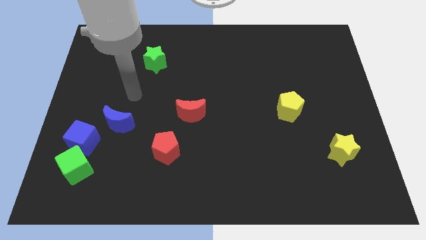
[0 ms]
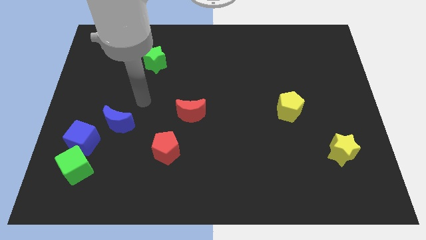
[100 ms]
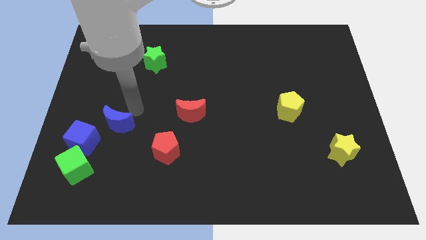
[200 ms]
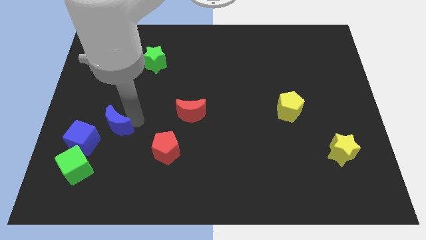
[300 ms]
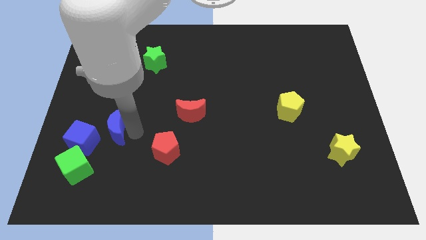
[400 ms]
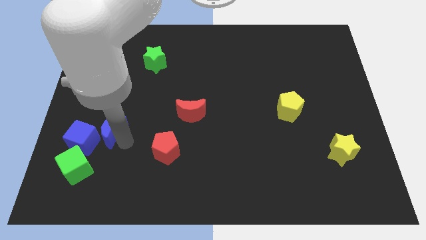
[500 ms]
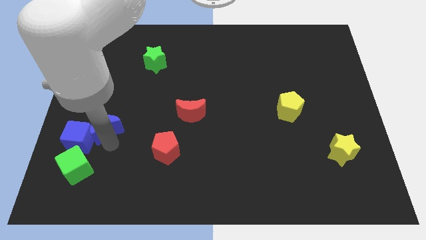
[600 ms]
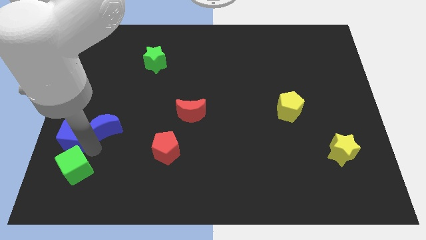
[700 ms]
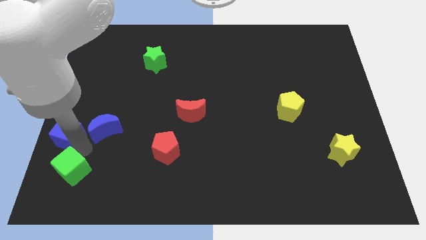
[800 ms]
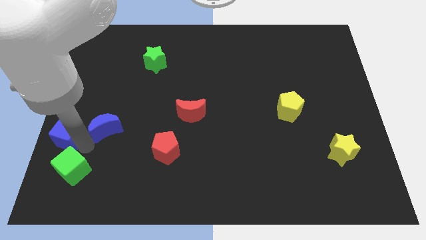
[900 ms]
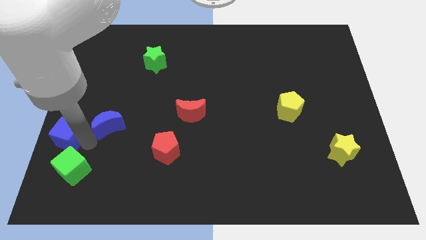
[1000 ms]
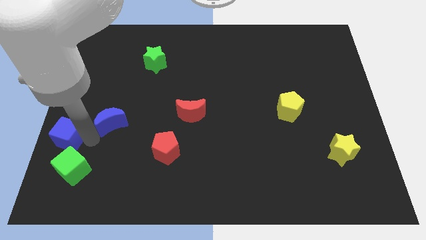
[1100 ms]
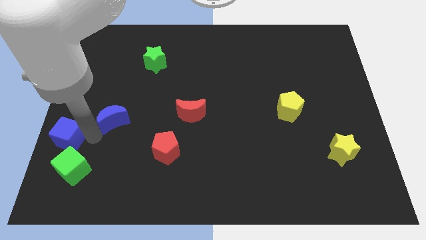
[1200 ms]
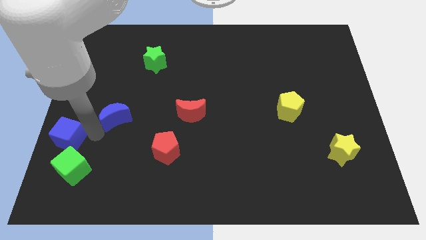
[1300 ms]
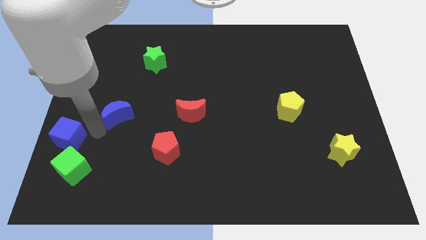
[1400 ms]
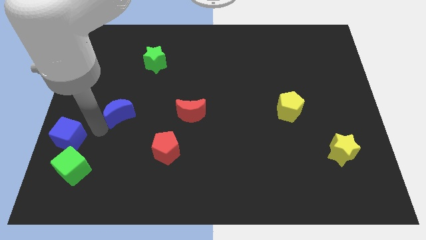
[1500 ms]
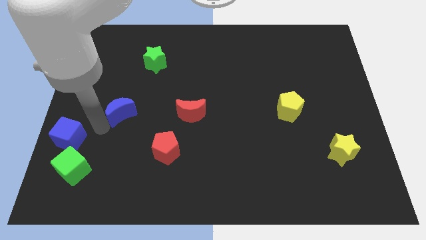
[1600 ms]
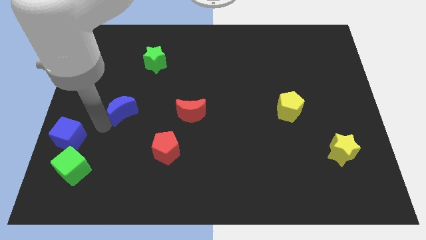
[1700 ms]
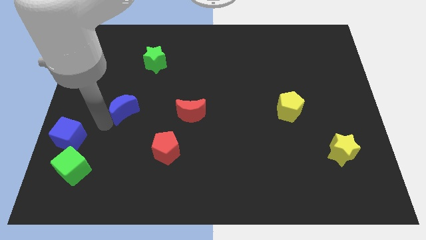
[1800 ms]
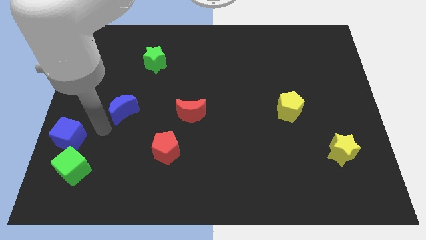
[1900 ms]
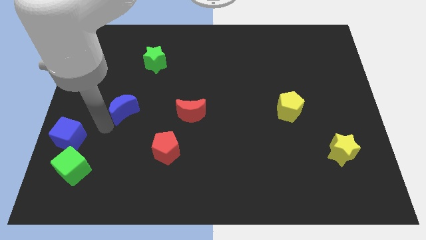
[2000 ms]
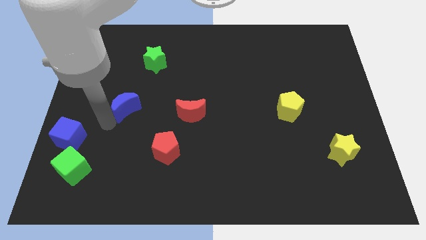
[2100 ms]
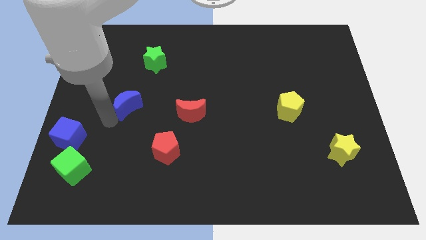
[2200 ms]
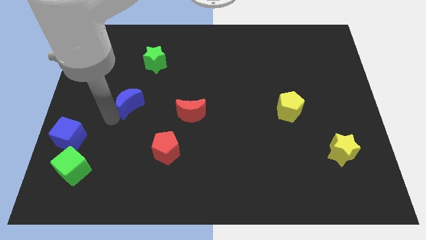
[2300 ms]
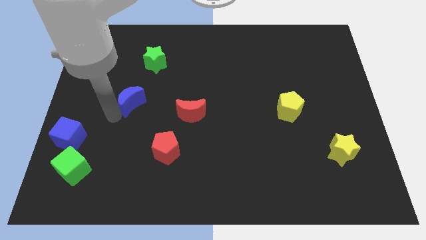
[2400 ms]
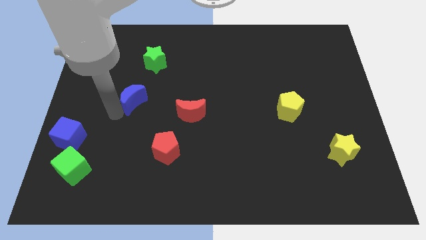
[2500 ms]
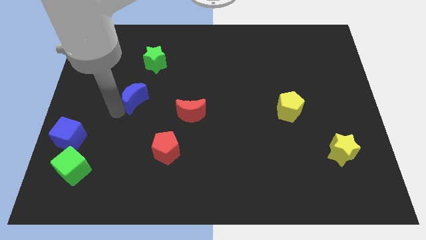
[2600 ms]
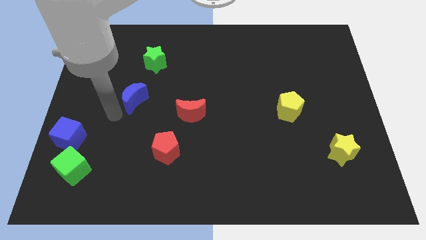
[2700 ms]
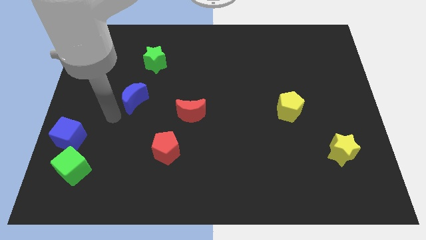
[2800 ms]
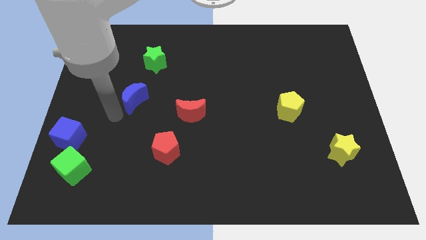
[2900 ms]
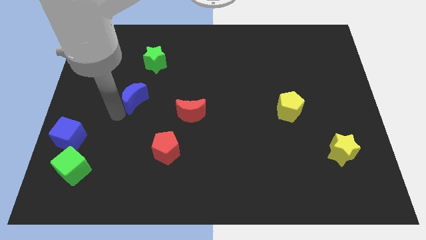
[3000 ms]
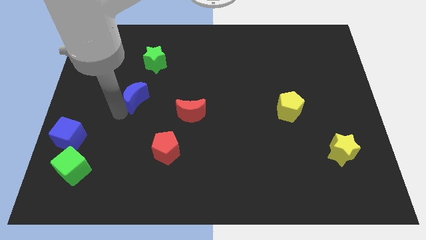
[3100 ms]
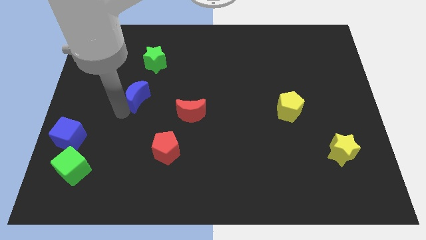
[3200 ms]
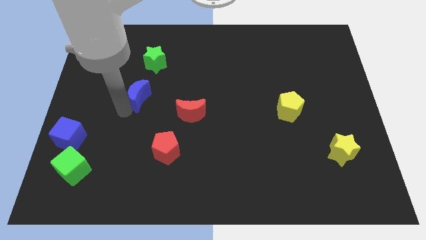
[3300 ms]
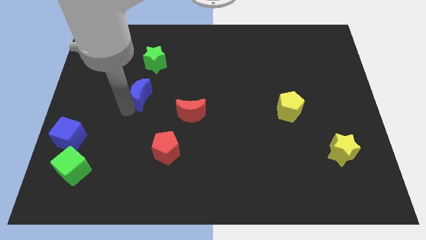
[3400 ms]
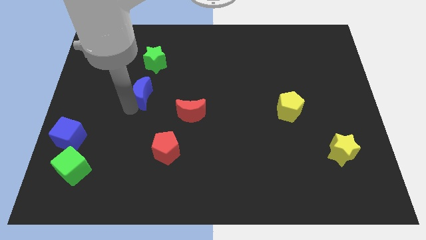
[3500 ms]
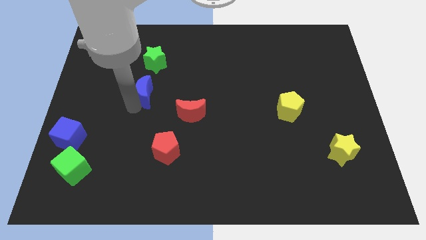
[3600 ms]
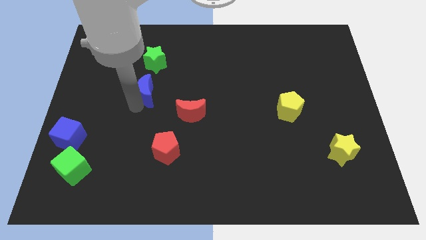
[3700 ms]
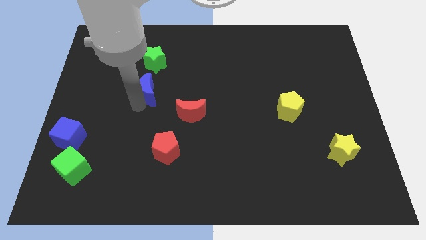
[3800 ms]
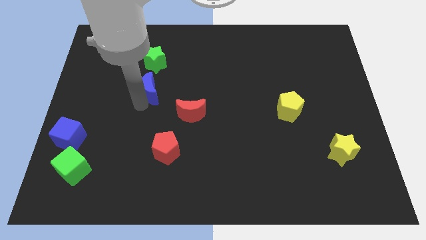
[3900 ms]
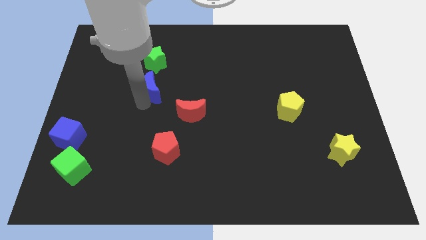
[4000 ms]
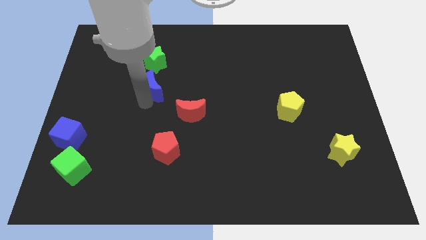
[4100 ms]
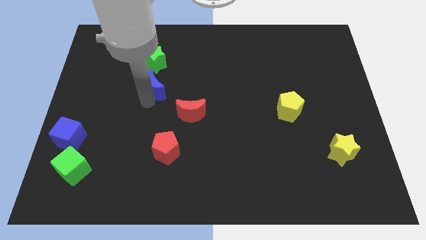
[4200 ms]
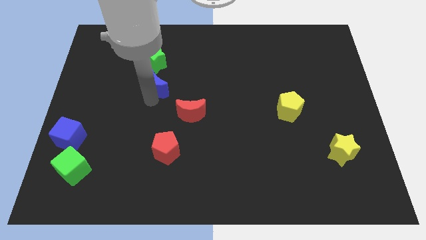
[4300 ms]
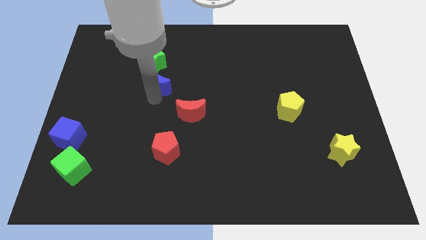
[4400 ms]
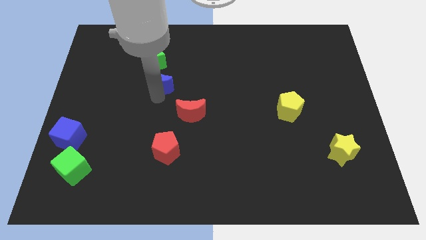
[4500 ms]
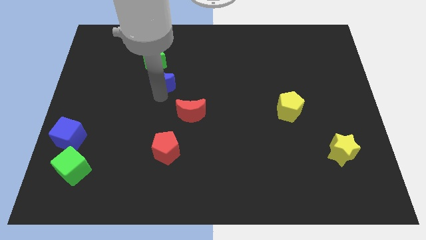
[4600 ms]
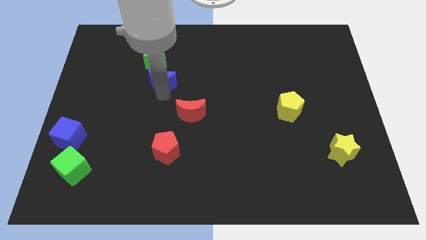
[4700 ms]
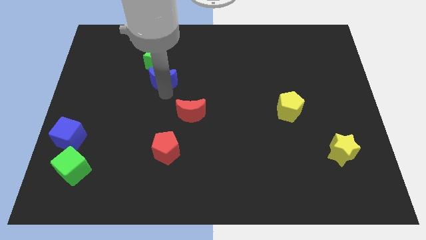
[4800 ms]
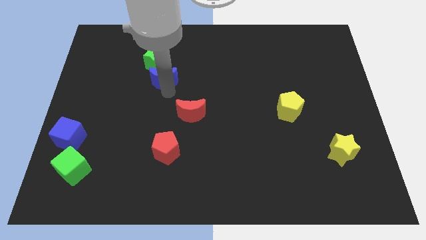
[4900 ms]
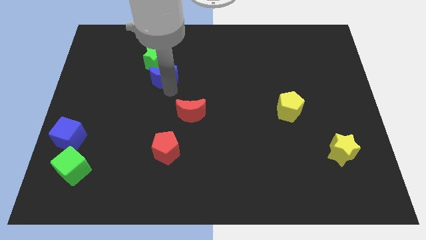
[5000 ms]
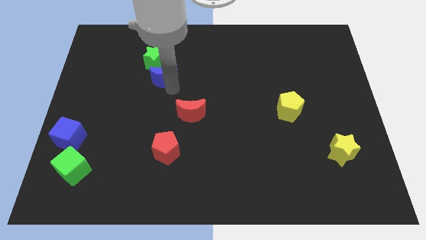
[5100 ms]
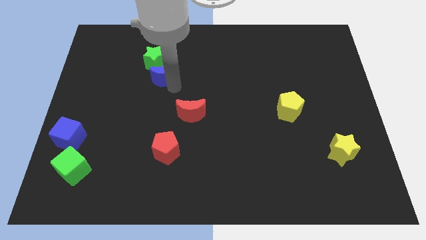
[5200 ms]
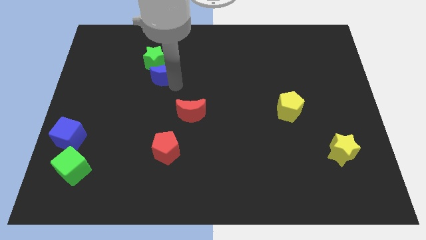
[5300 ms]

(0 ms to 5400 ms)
put the blue moon close to the green star

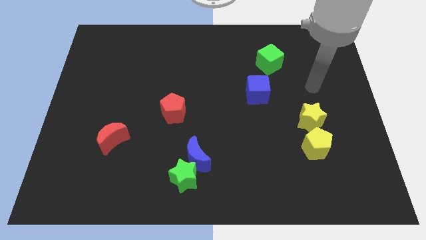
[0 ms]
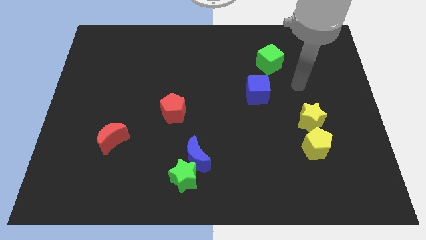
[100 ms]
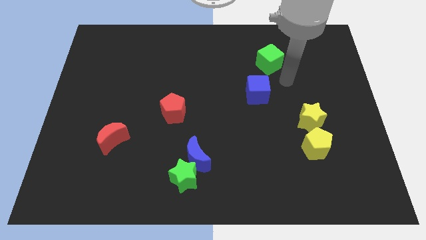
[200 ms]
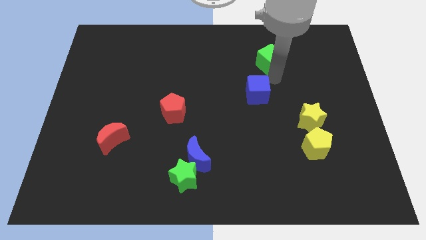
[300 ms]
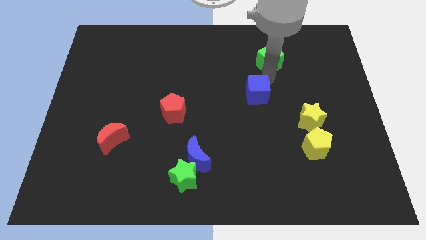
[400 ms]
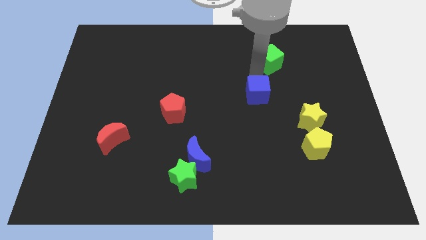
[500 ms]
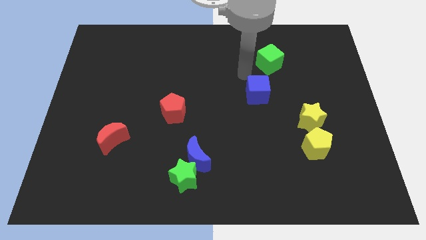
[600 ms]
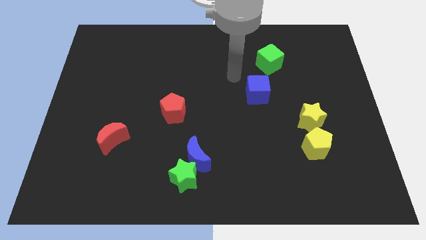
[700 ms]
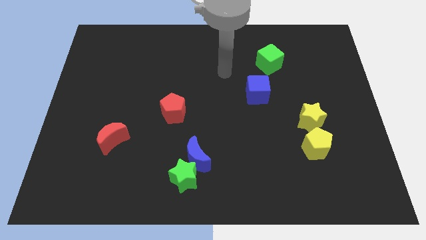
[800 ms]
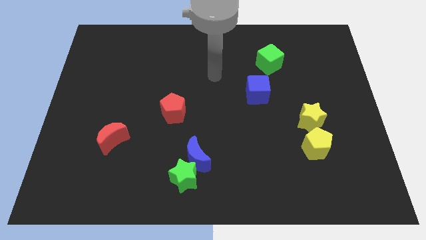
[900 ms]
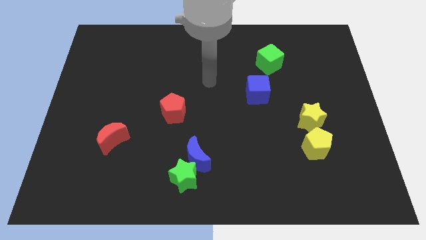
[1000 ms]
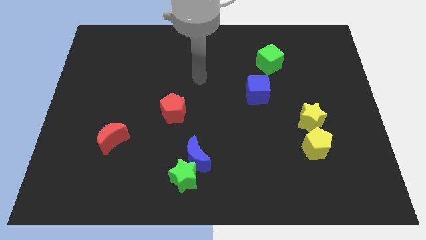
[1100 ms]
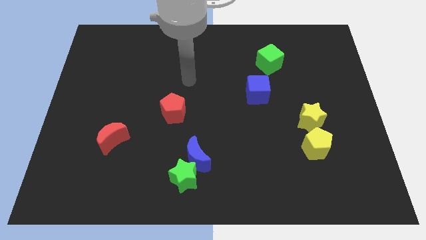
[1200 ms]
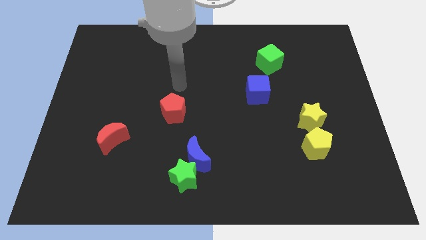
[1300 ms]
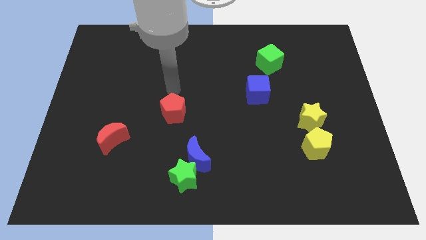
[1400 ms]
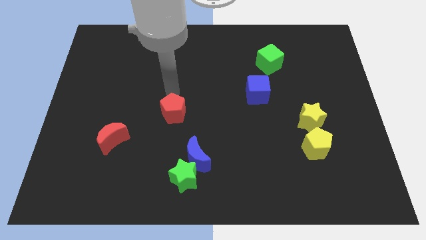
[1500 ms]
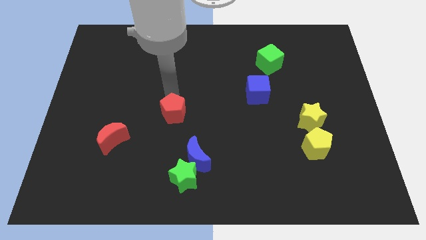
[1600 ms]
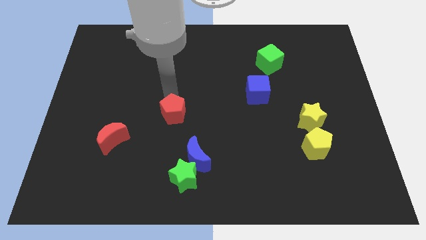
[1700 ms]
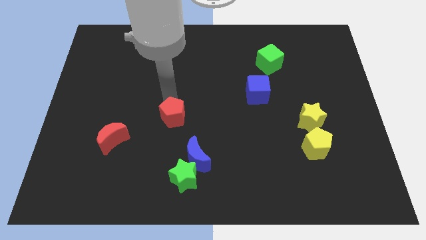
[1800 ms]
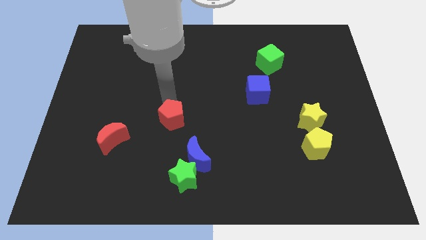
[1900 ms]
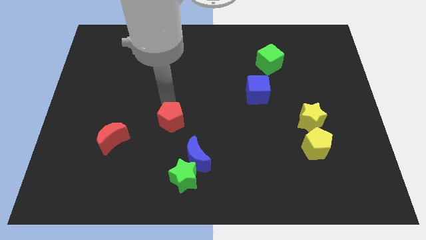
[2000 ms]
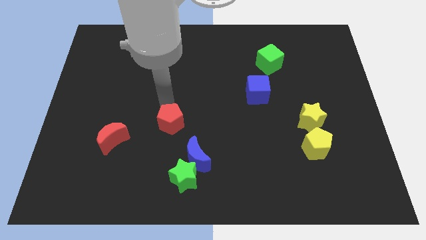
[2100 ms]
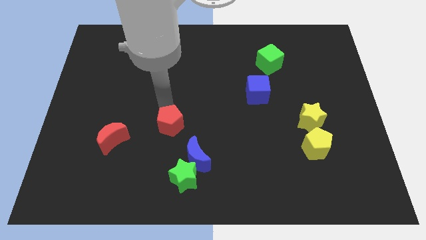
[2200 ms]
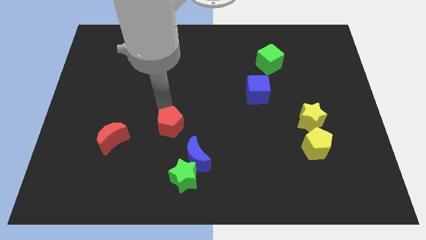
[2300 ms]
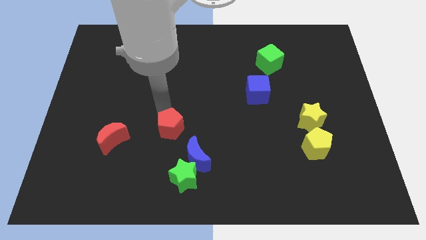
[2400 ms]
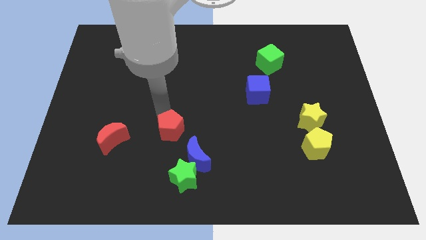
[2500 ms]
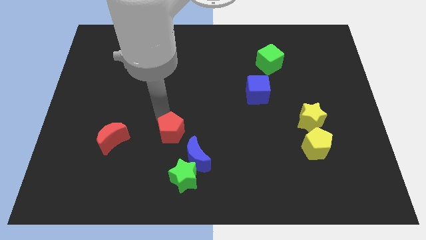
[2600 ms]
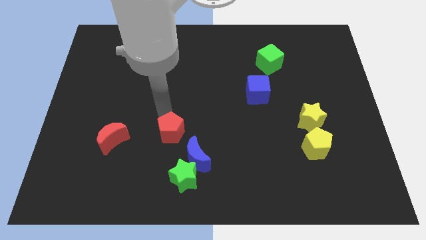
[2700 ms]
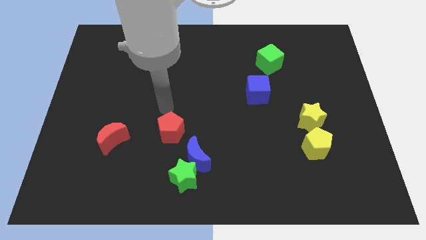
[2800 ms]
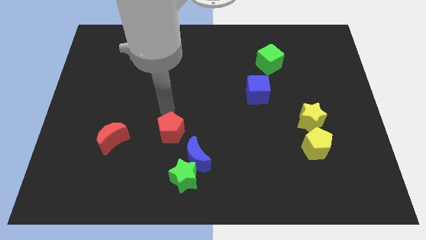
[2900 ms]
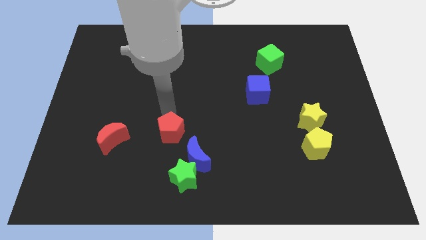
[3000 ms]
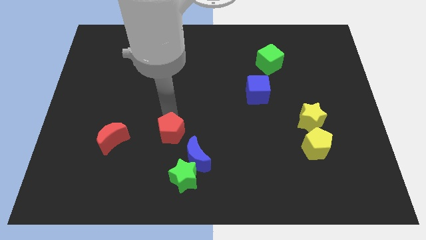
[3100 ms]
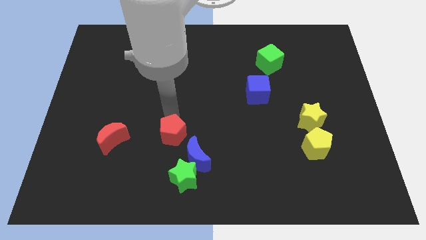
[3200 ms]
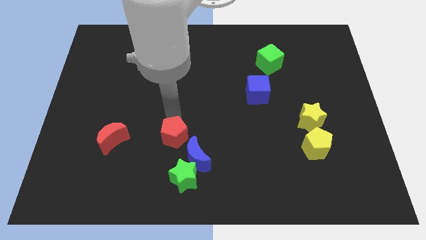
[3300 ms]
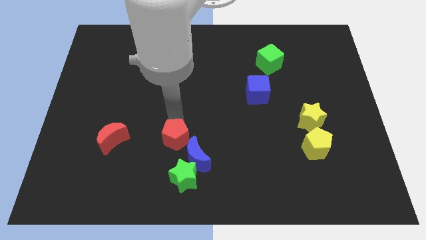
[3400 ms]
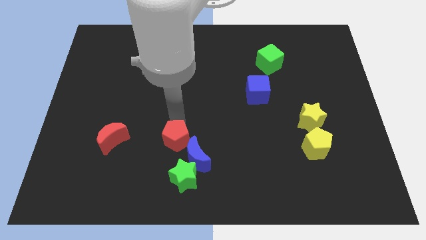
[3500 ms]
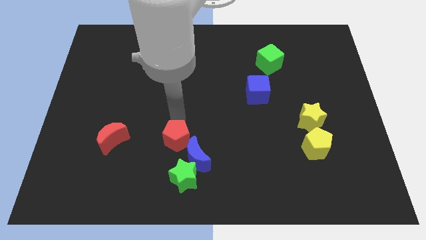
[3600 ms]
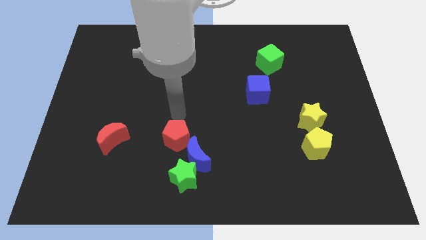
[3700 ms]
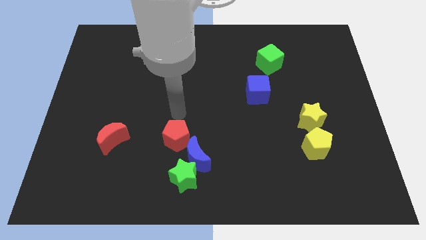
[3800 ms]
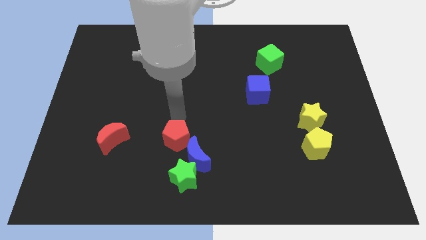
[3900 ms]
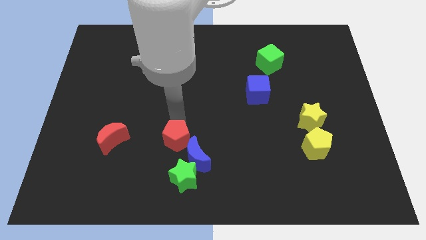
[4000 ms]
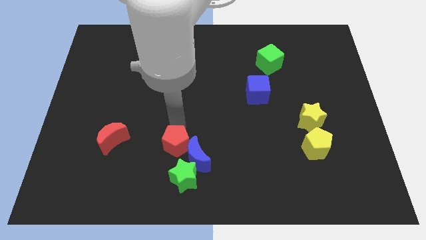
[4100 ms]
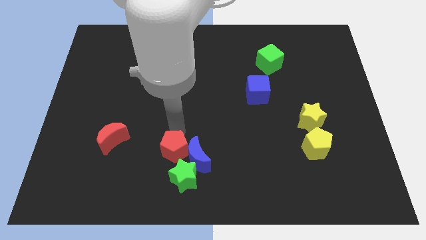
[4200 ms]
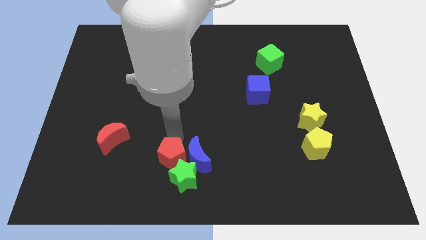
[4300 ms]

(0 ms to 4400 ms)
move the red pentagon to the green star
